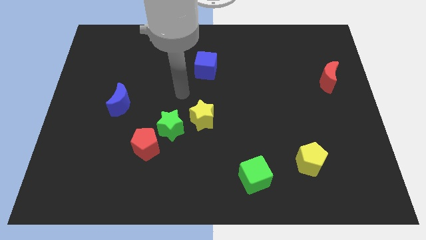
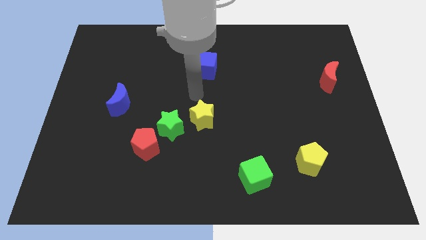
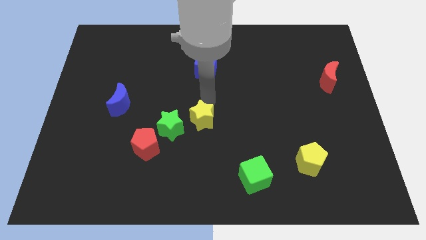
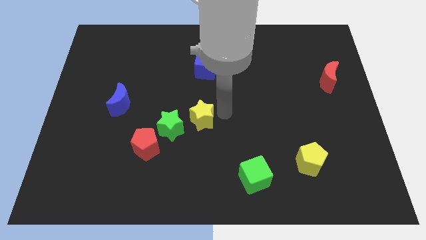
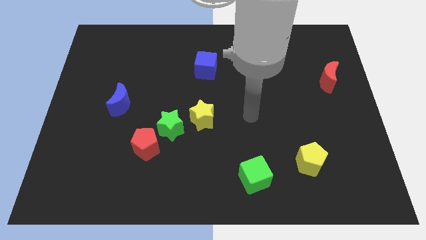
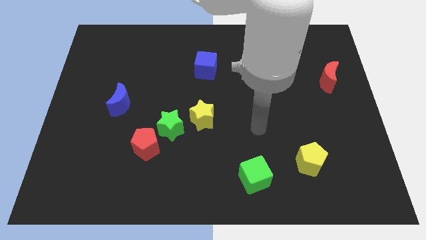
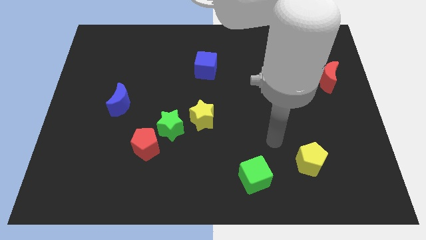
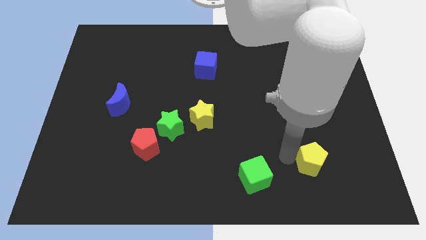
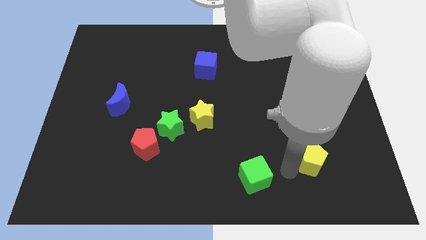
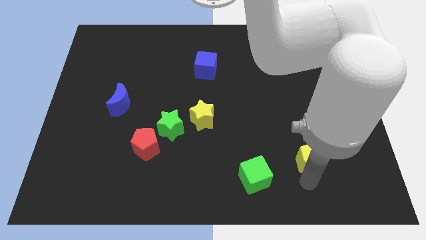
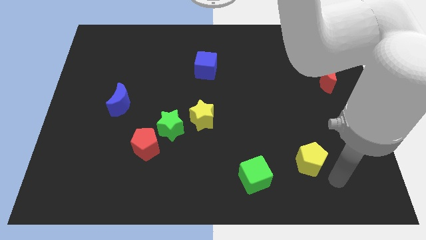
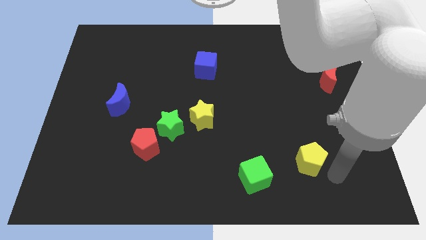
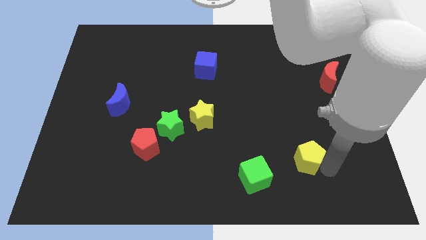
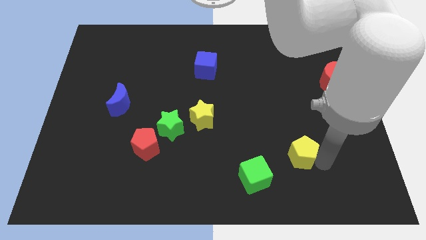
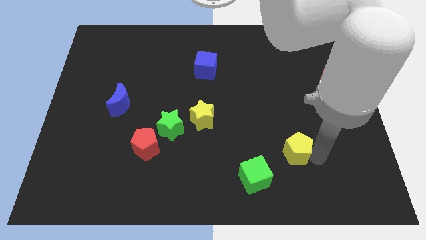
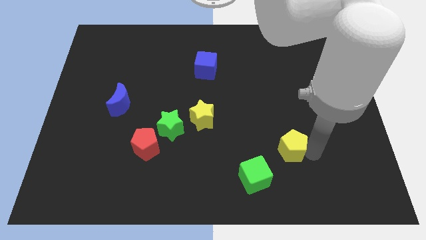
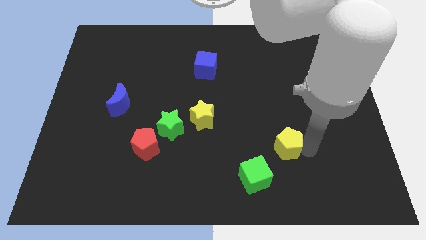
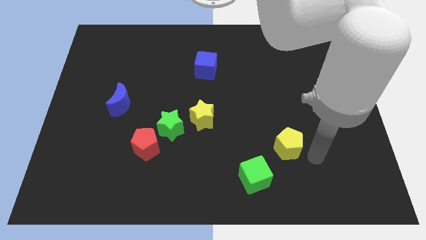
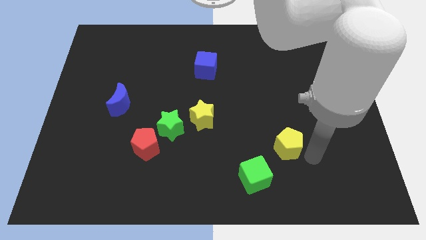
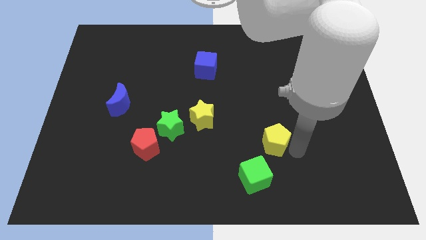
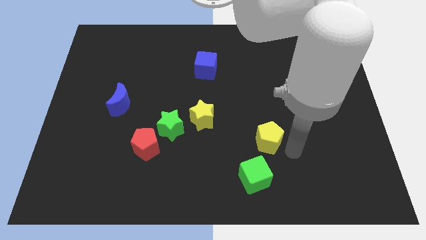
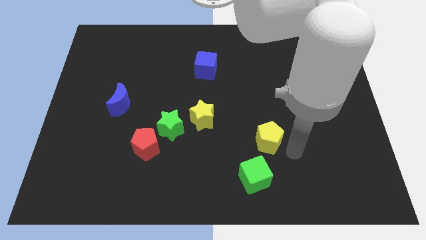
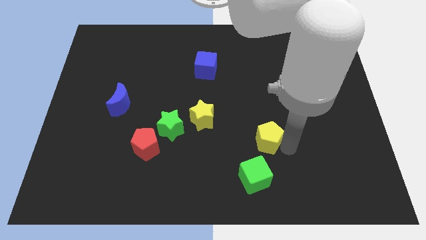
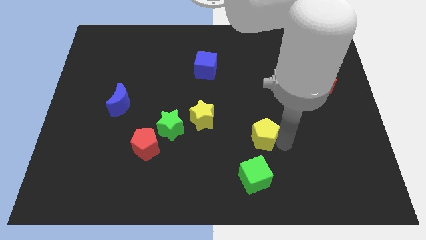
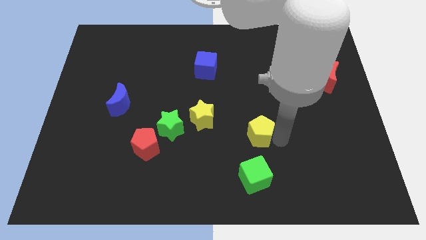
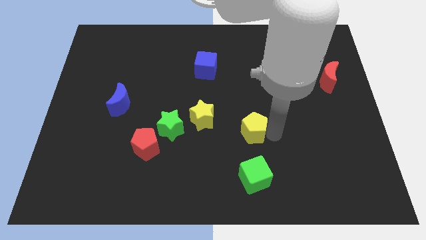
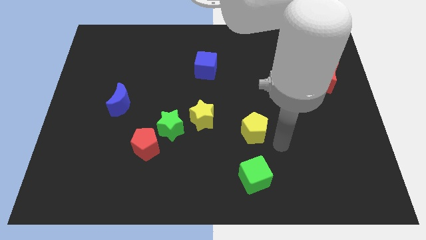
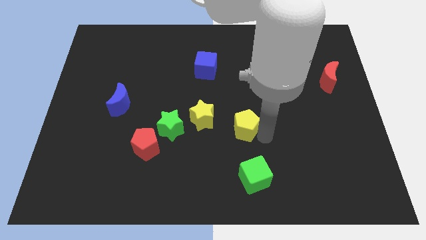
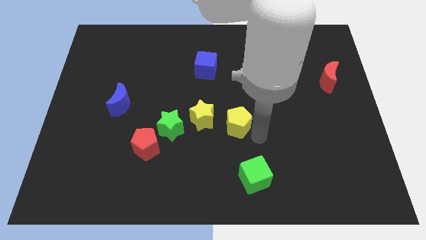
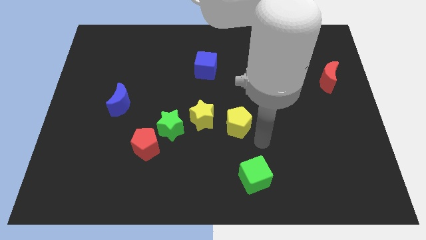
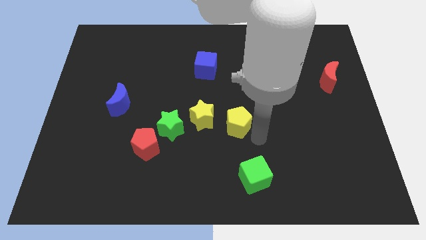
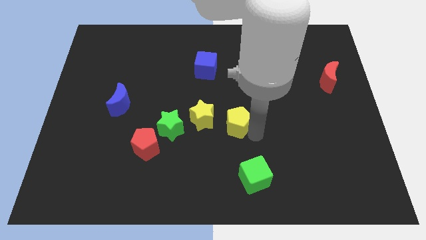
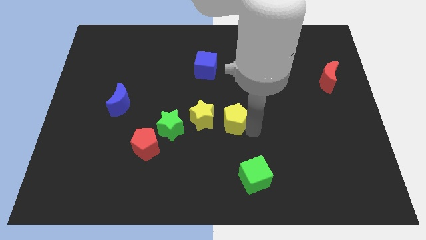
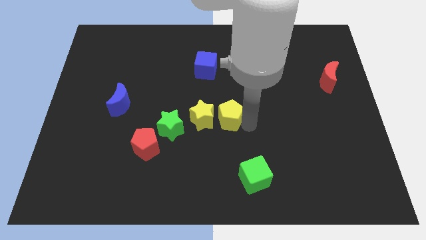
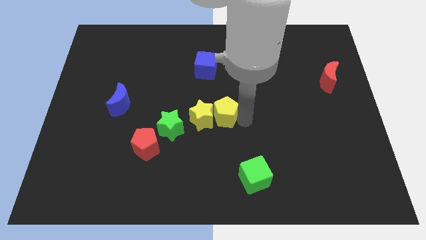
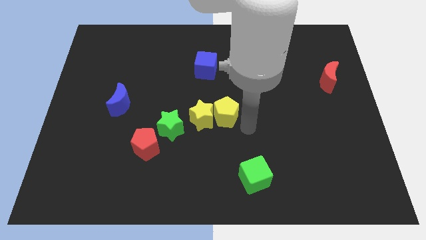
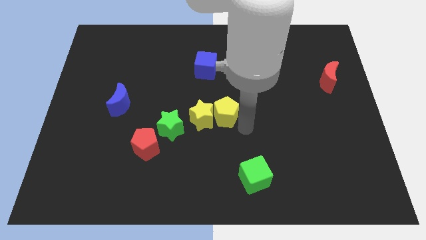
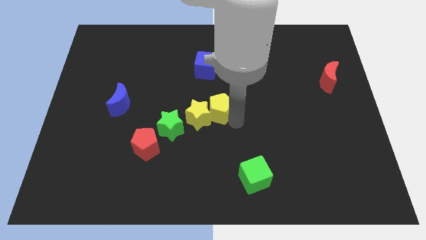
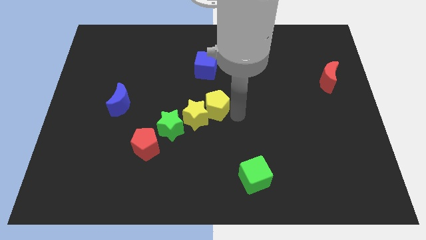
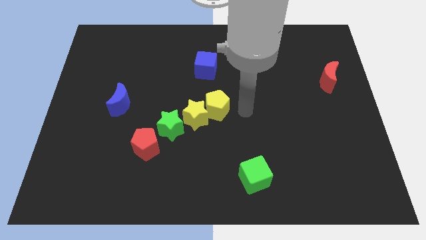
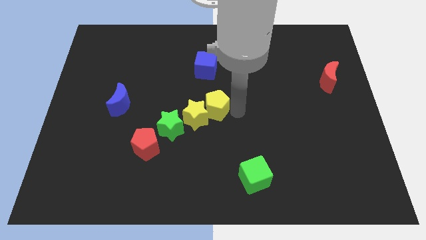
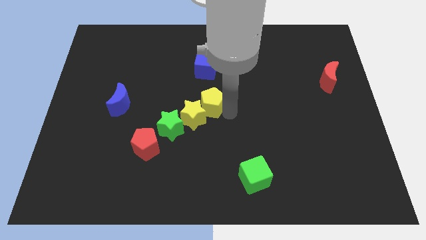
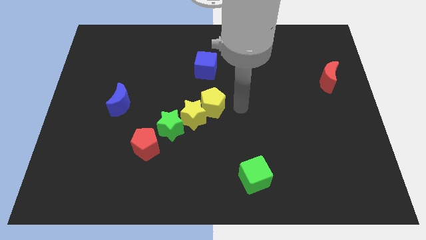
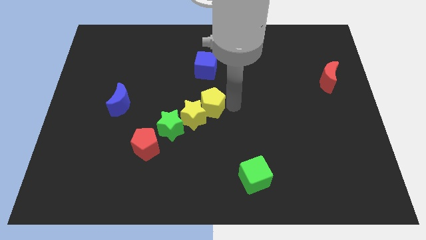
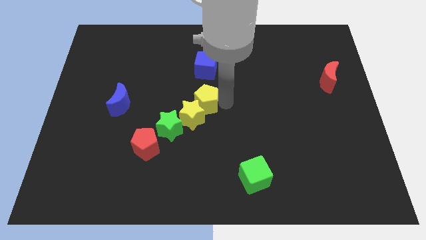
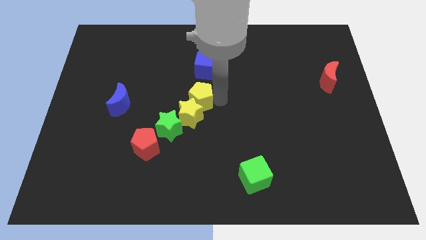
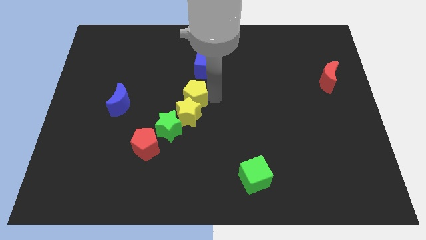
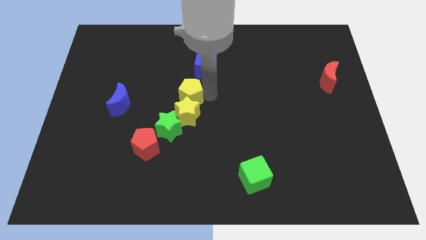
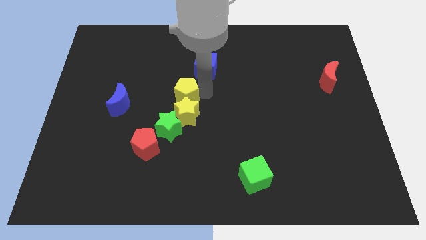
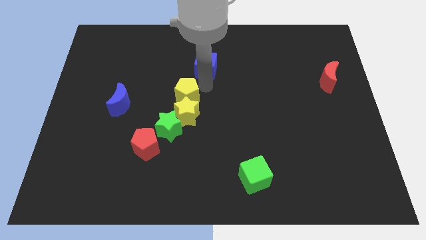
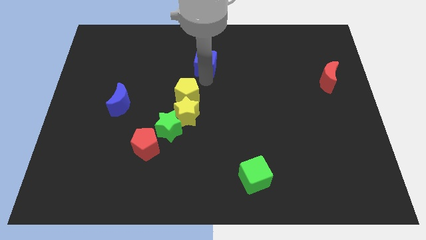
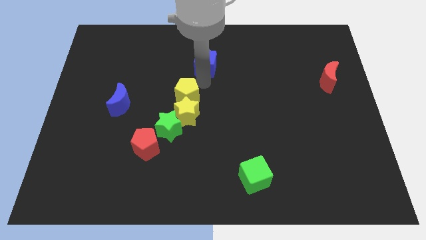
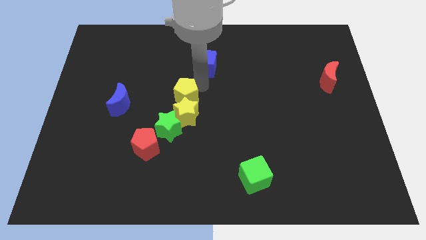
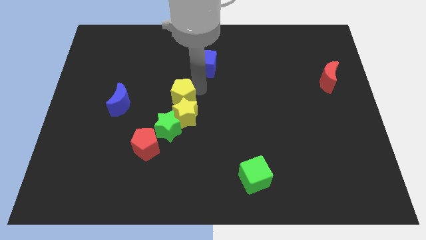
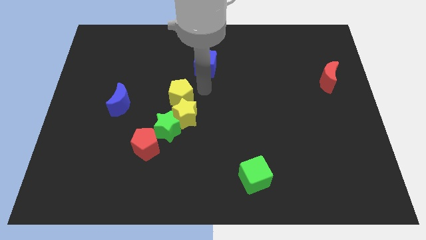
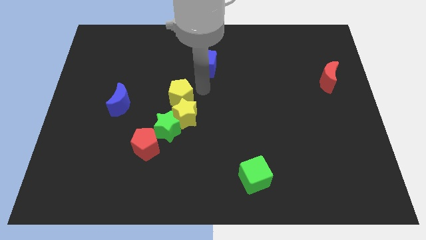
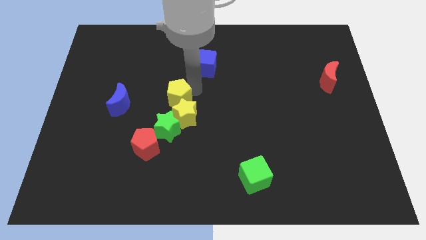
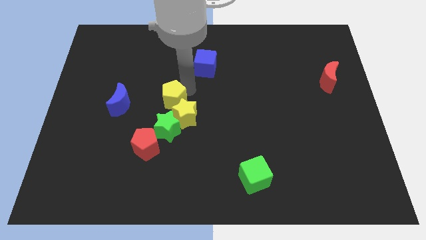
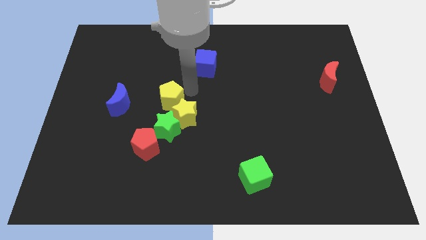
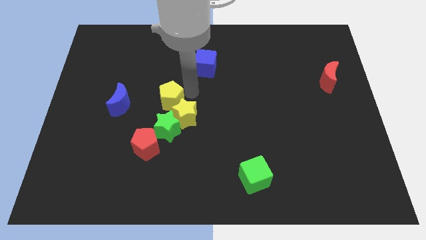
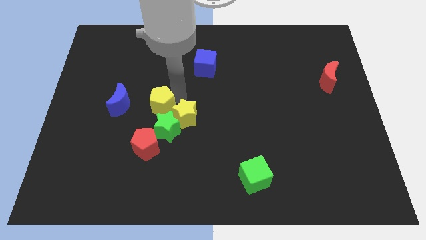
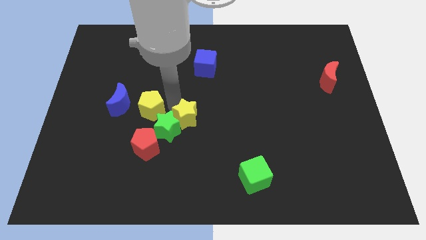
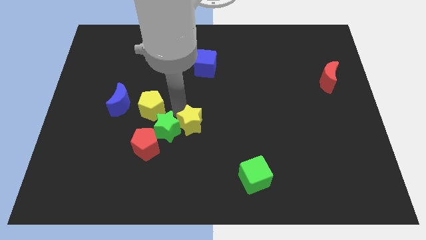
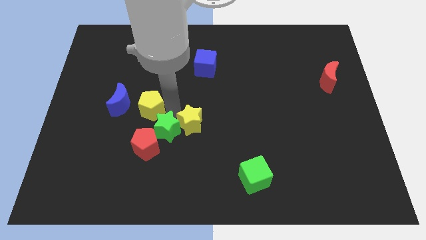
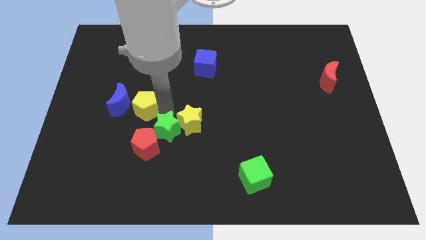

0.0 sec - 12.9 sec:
slide the yellow pentagon to the blue moon
